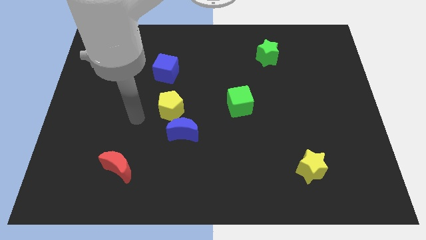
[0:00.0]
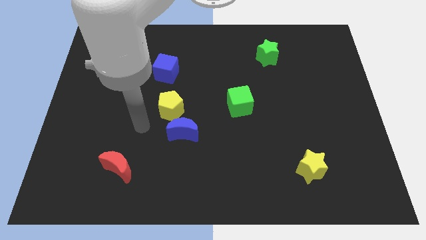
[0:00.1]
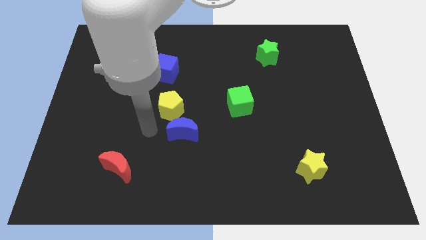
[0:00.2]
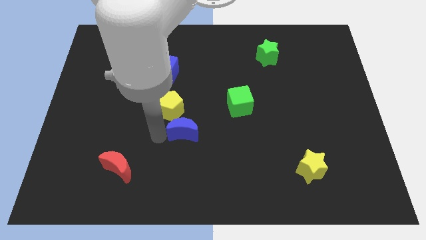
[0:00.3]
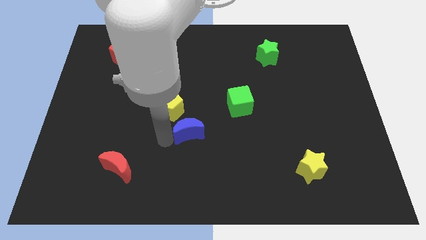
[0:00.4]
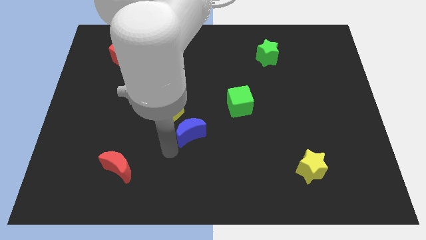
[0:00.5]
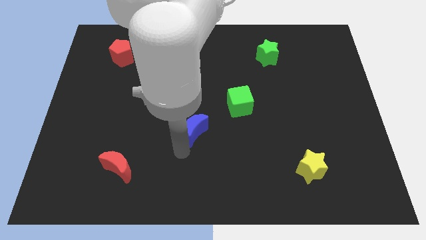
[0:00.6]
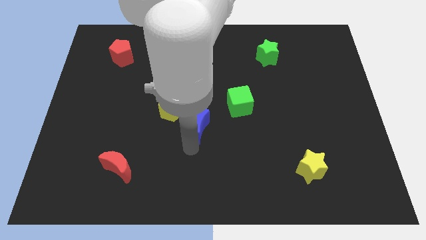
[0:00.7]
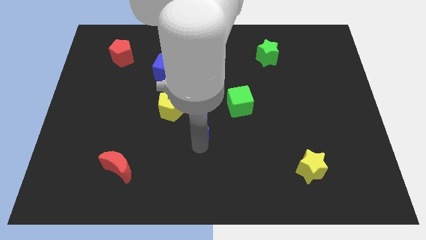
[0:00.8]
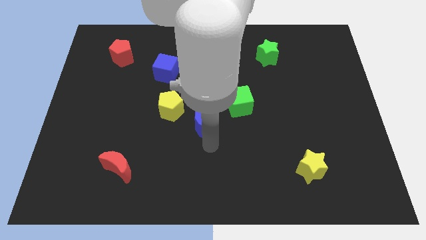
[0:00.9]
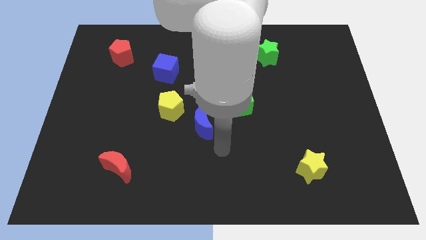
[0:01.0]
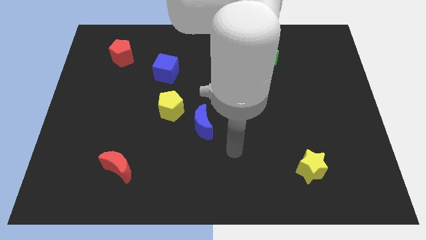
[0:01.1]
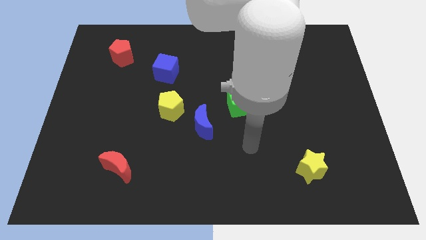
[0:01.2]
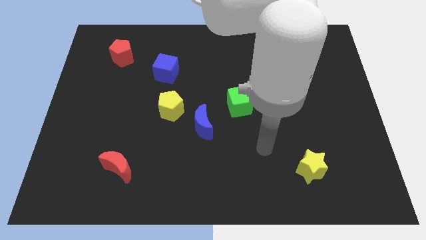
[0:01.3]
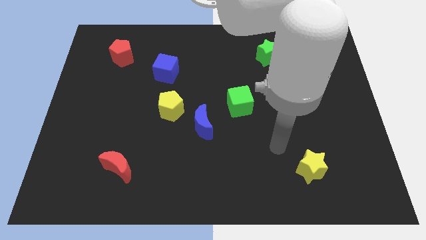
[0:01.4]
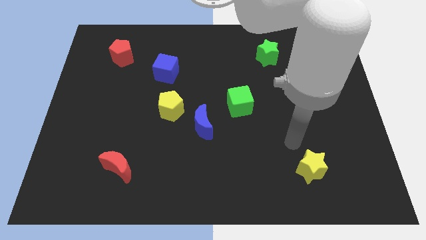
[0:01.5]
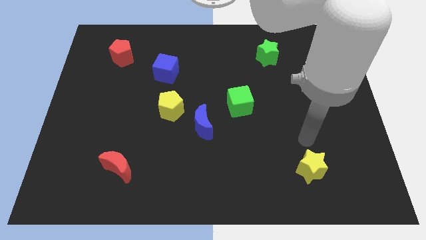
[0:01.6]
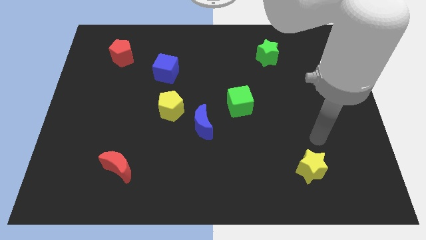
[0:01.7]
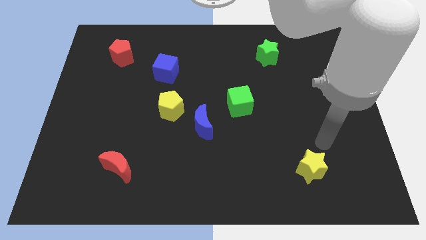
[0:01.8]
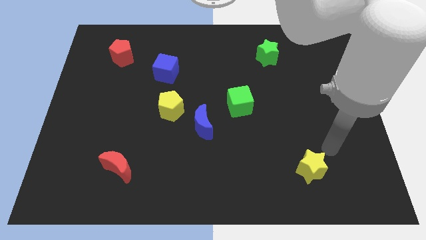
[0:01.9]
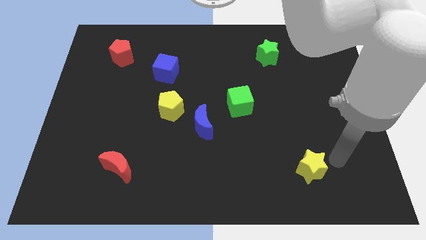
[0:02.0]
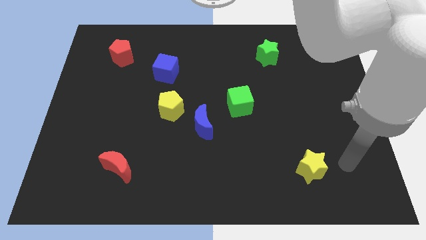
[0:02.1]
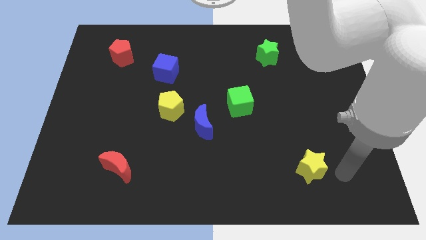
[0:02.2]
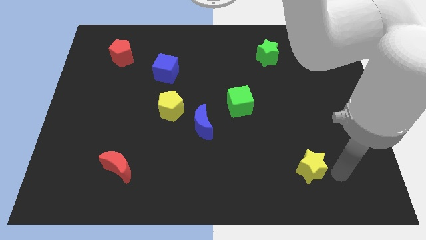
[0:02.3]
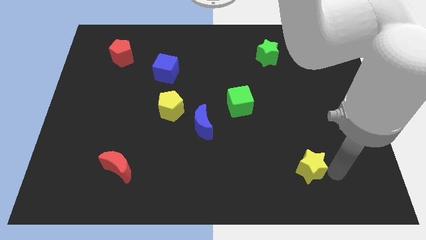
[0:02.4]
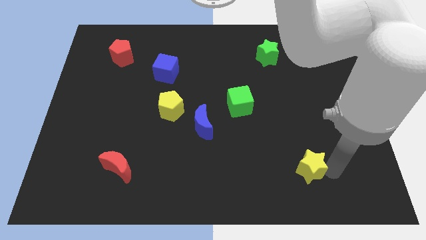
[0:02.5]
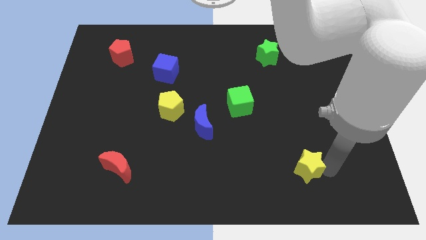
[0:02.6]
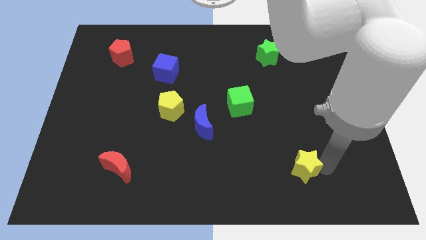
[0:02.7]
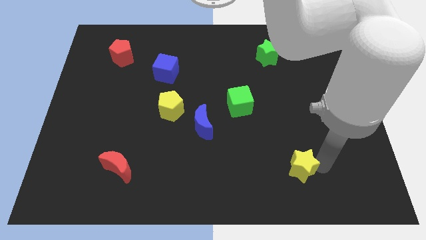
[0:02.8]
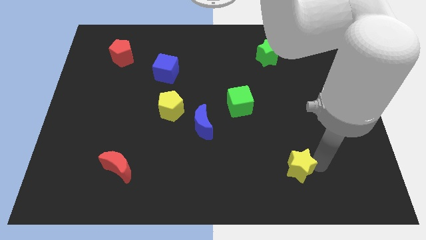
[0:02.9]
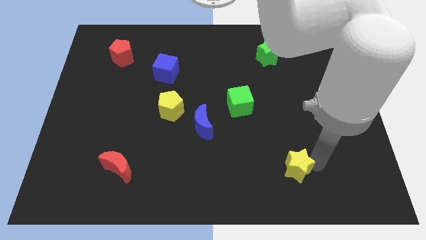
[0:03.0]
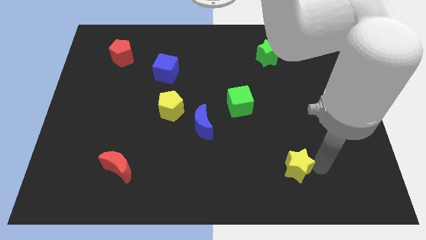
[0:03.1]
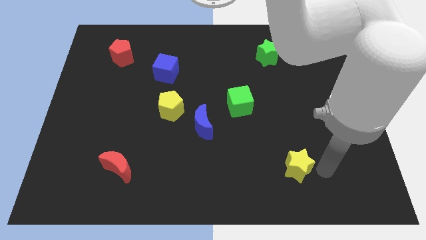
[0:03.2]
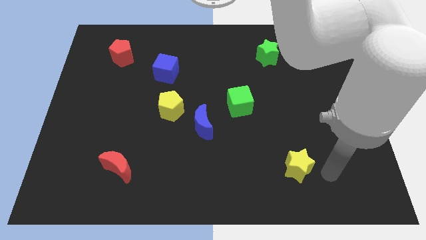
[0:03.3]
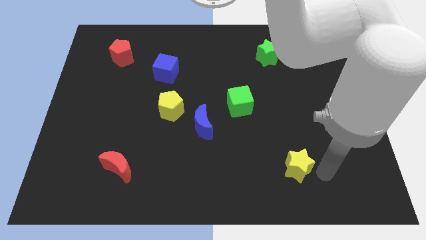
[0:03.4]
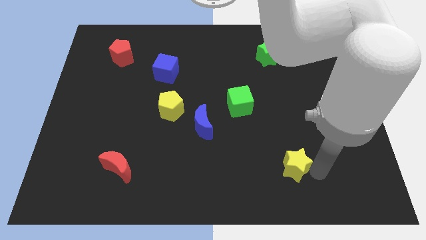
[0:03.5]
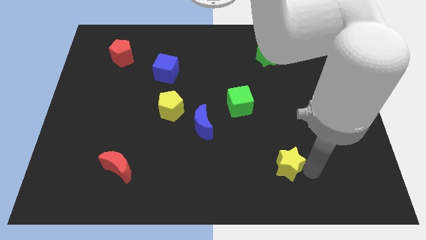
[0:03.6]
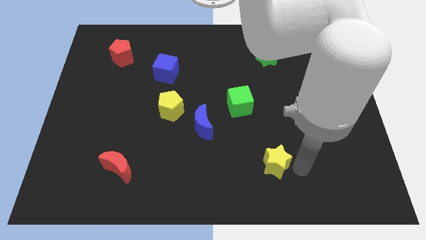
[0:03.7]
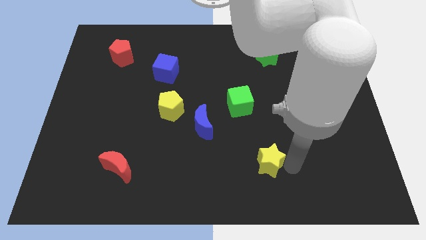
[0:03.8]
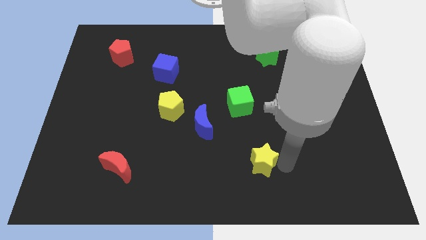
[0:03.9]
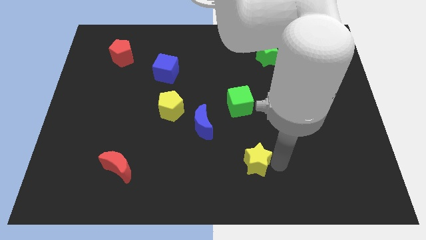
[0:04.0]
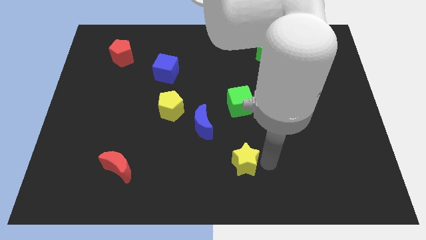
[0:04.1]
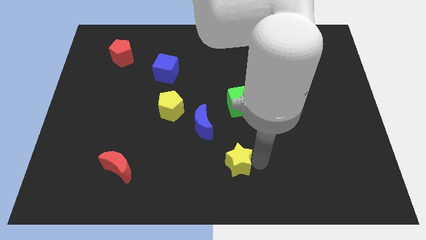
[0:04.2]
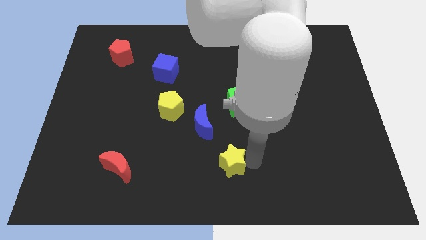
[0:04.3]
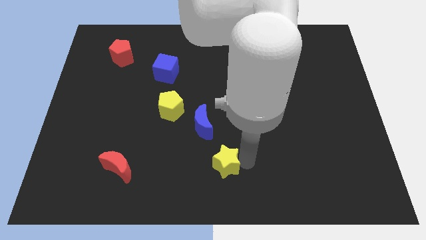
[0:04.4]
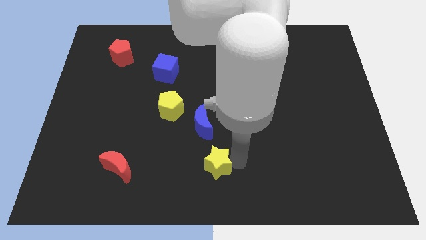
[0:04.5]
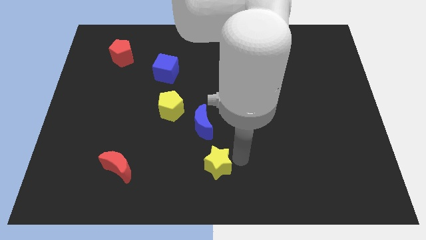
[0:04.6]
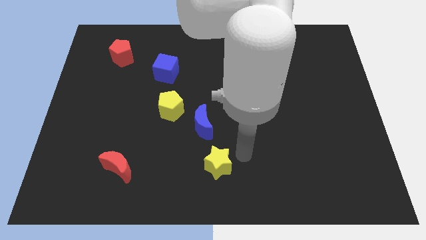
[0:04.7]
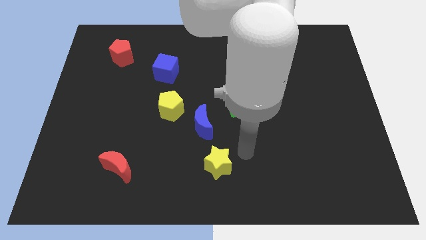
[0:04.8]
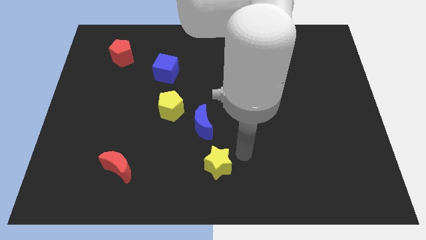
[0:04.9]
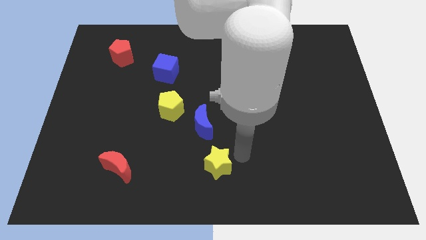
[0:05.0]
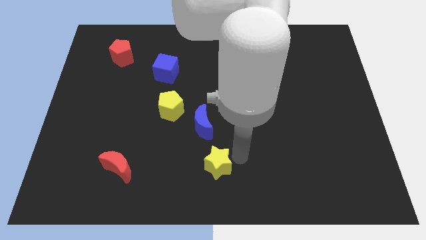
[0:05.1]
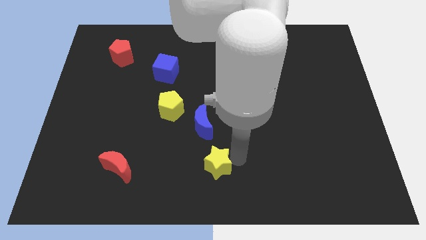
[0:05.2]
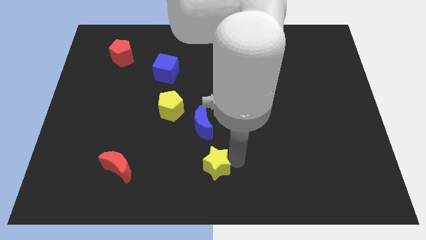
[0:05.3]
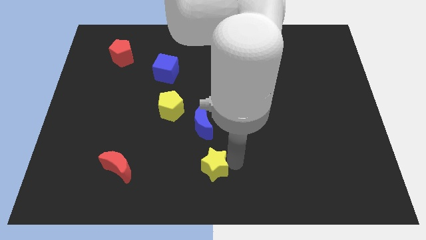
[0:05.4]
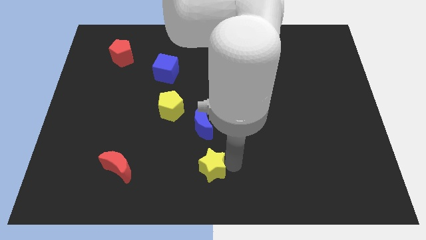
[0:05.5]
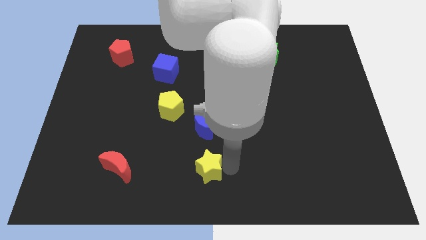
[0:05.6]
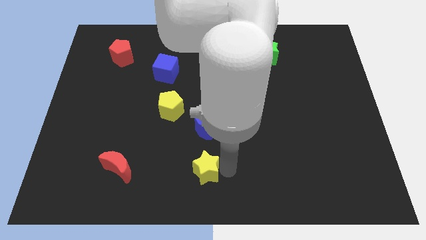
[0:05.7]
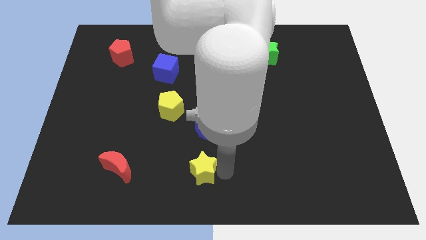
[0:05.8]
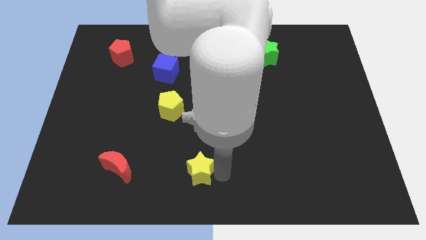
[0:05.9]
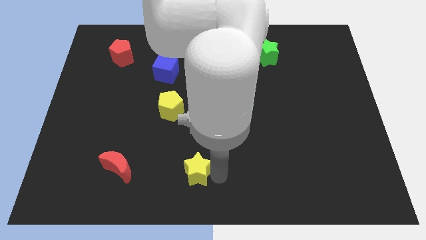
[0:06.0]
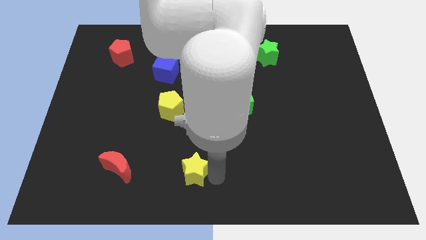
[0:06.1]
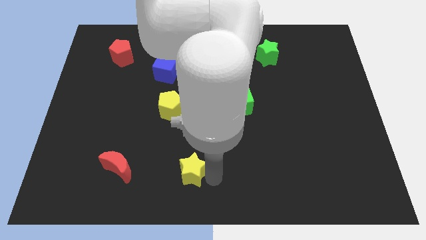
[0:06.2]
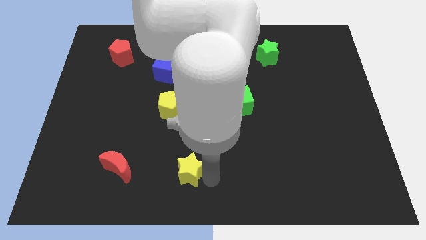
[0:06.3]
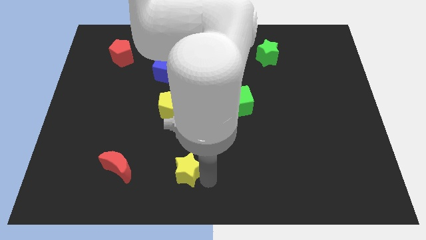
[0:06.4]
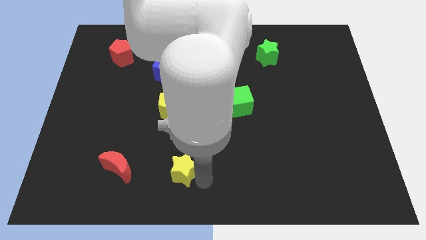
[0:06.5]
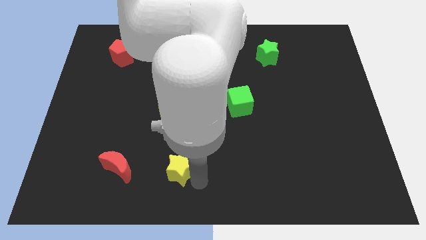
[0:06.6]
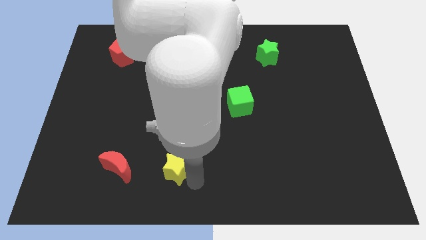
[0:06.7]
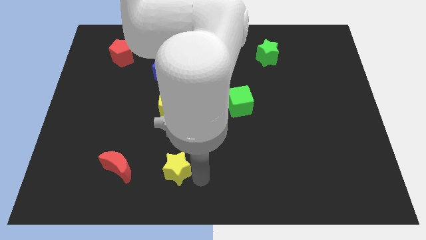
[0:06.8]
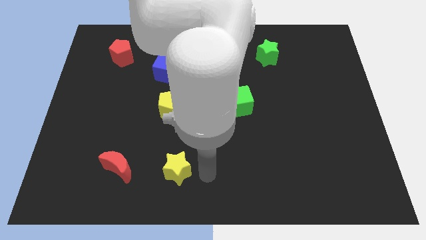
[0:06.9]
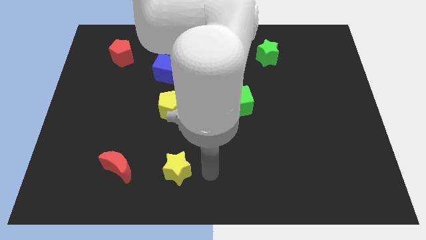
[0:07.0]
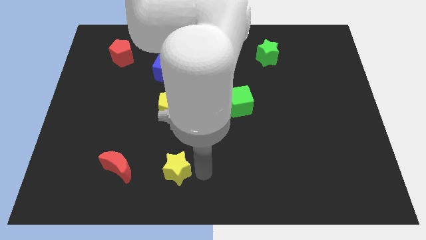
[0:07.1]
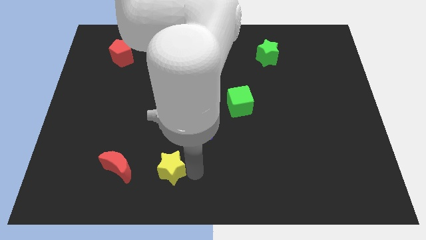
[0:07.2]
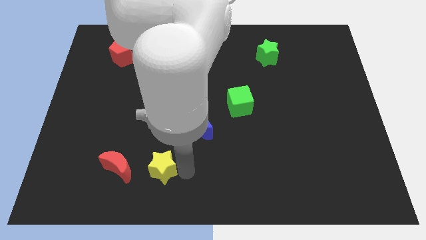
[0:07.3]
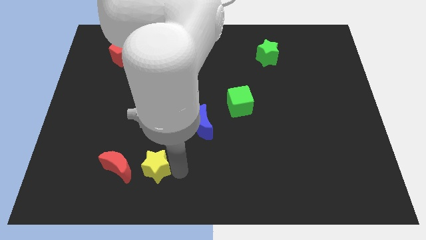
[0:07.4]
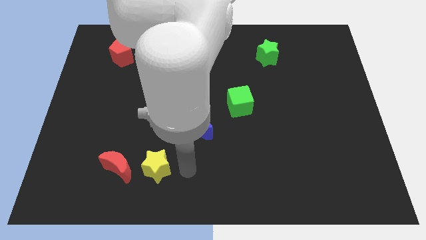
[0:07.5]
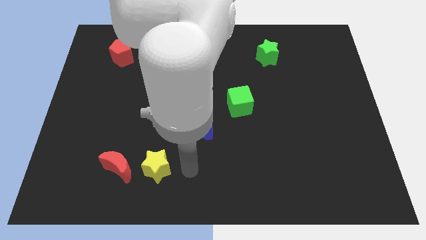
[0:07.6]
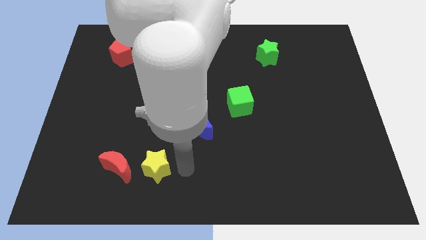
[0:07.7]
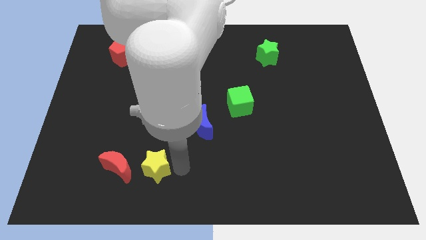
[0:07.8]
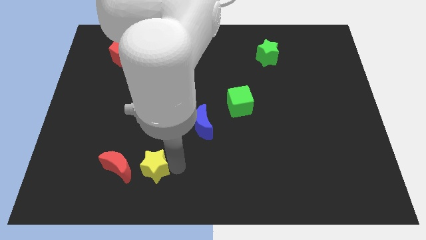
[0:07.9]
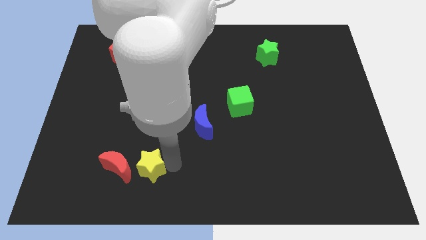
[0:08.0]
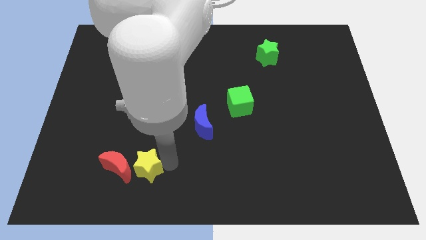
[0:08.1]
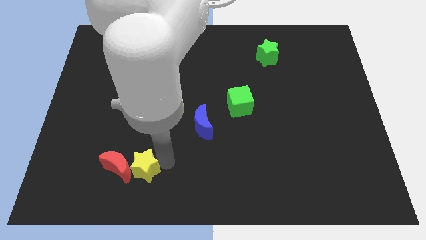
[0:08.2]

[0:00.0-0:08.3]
push the yellow star close to the red moon
